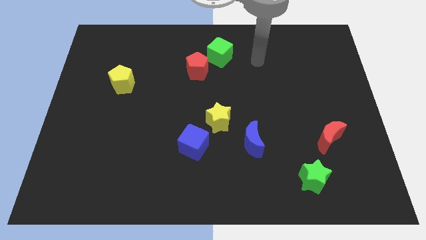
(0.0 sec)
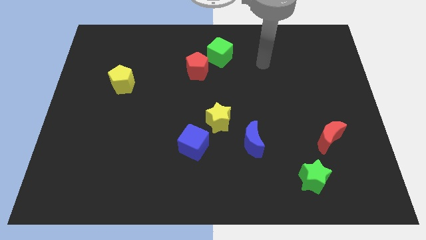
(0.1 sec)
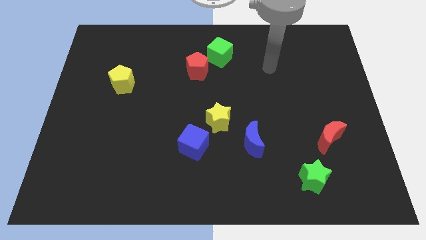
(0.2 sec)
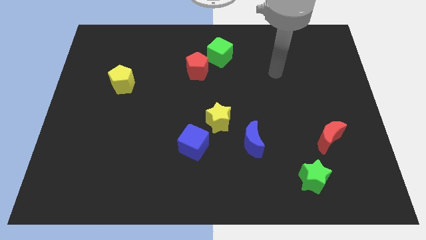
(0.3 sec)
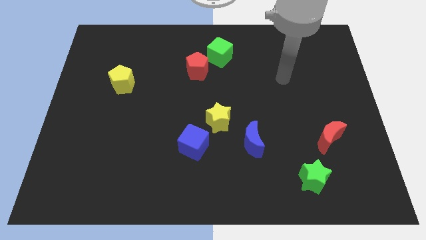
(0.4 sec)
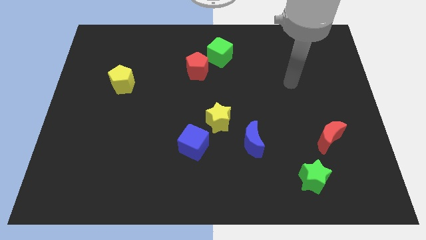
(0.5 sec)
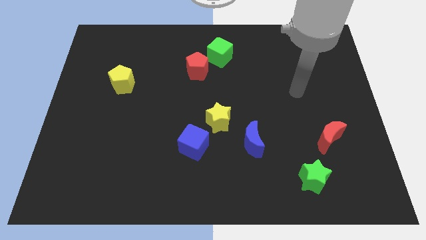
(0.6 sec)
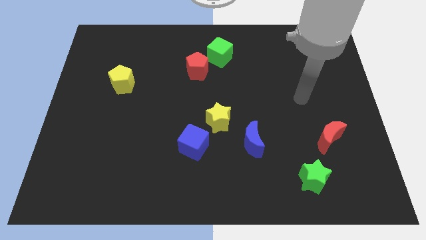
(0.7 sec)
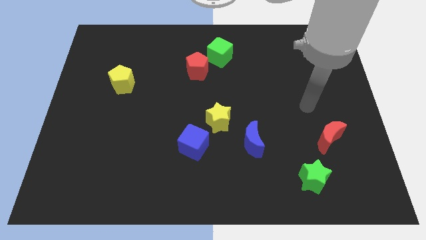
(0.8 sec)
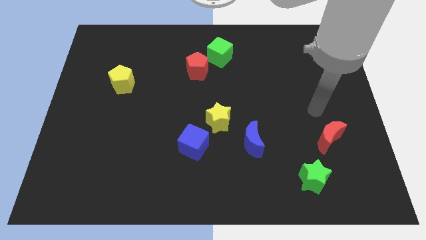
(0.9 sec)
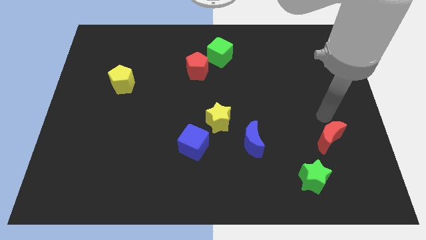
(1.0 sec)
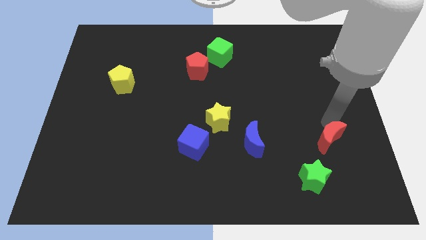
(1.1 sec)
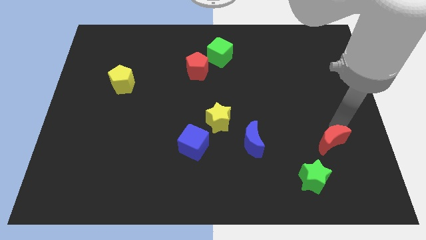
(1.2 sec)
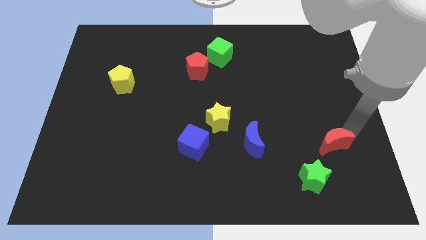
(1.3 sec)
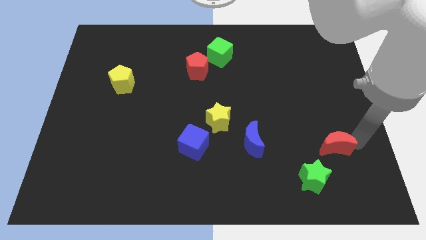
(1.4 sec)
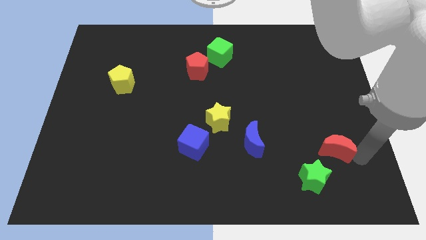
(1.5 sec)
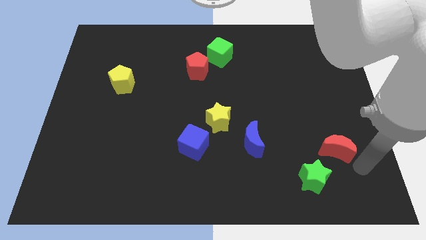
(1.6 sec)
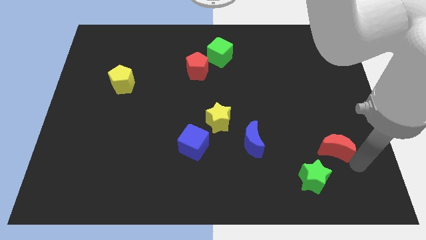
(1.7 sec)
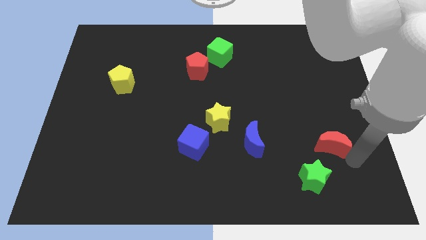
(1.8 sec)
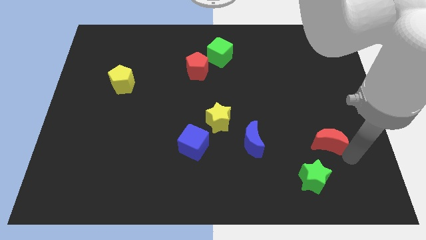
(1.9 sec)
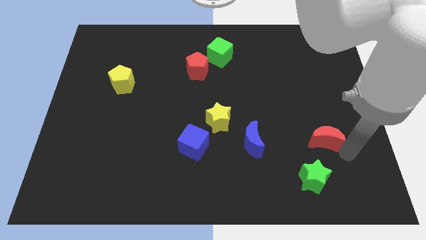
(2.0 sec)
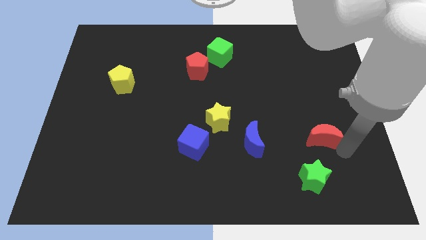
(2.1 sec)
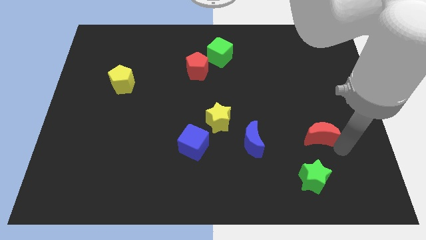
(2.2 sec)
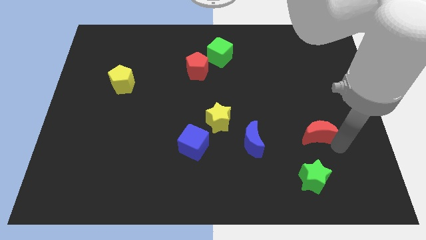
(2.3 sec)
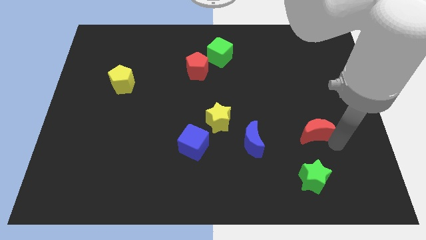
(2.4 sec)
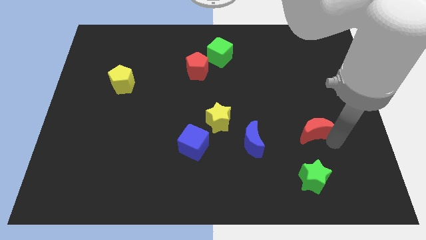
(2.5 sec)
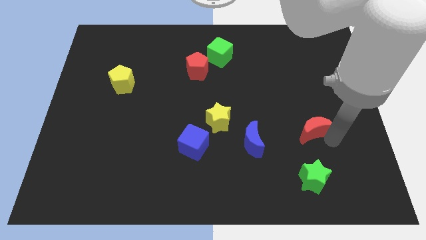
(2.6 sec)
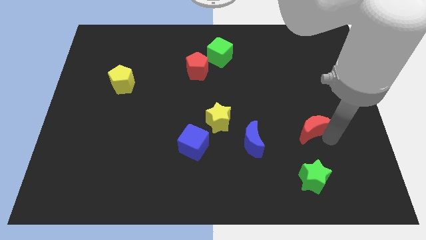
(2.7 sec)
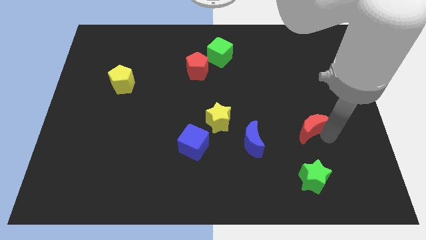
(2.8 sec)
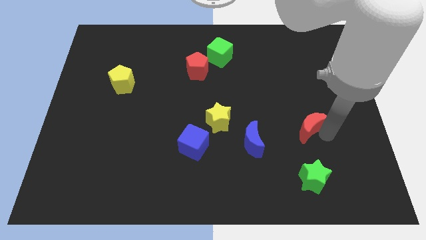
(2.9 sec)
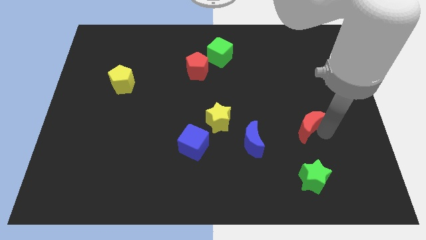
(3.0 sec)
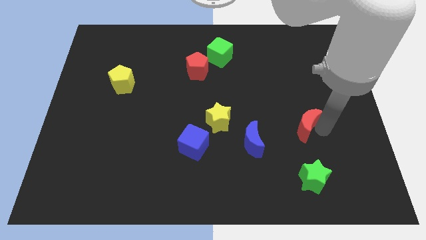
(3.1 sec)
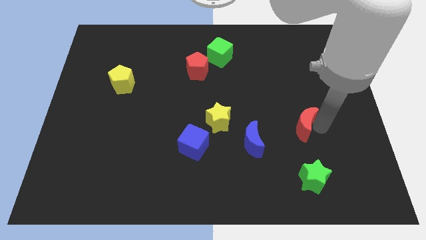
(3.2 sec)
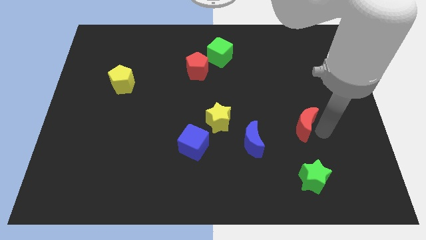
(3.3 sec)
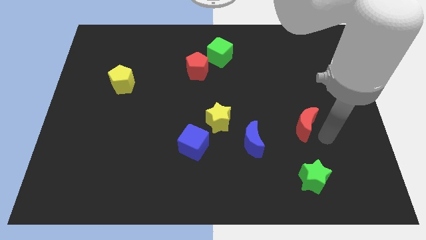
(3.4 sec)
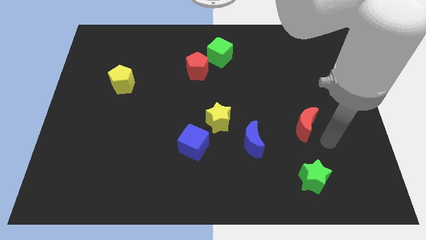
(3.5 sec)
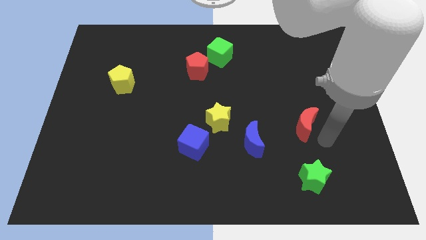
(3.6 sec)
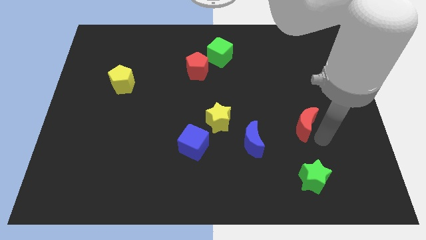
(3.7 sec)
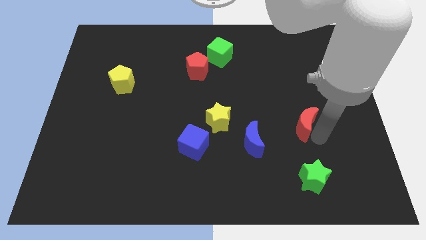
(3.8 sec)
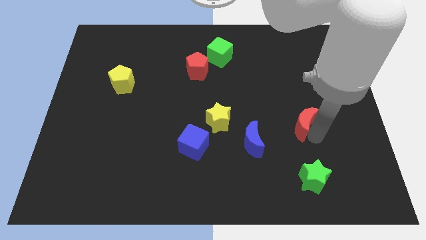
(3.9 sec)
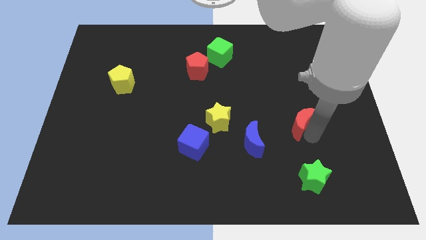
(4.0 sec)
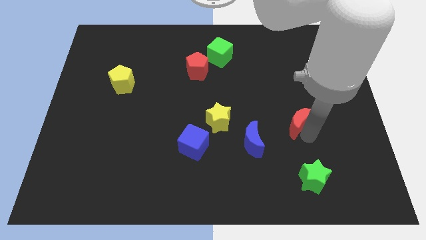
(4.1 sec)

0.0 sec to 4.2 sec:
move the red moon upwards and to the left diagonally somewhat

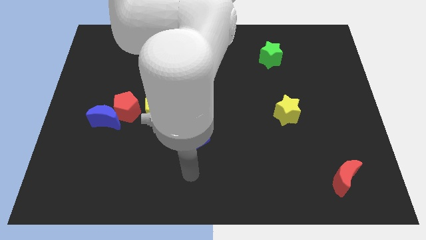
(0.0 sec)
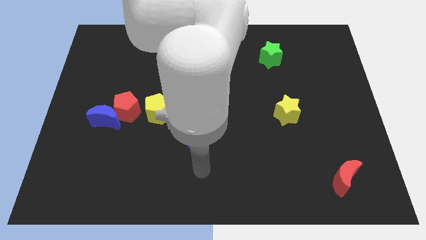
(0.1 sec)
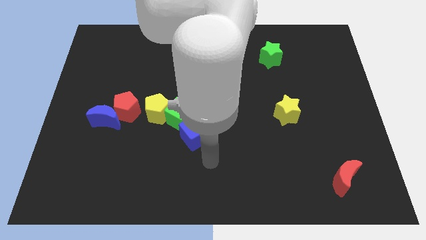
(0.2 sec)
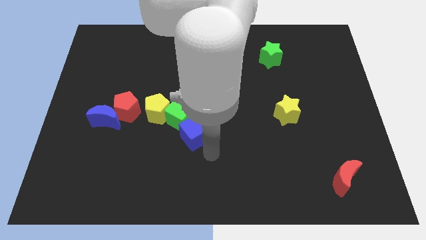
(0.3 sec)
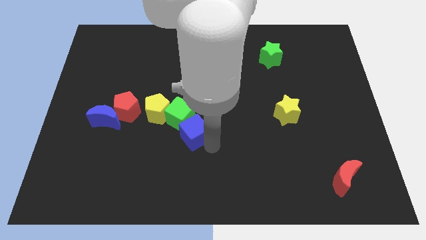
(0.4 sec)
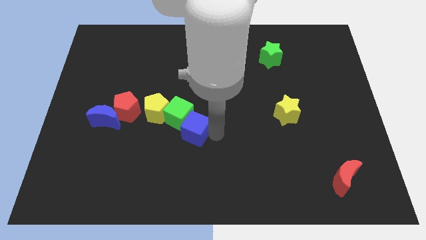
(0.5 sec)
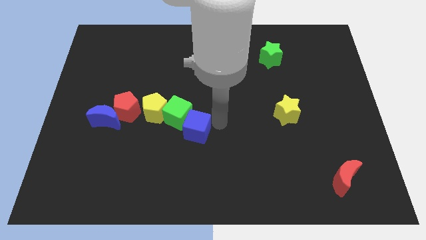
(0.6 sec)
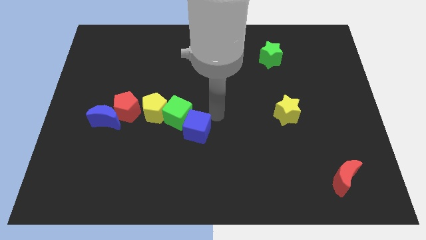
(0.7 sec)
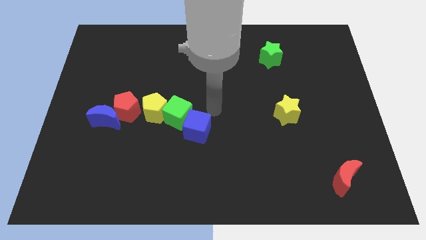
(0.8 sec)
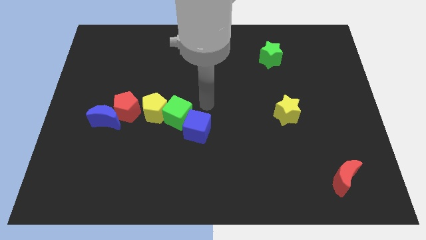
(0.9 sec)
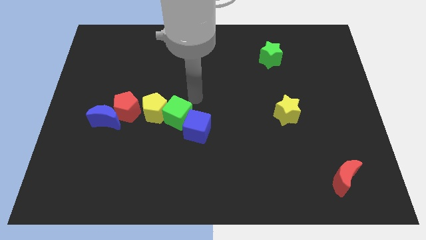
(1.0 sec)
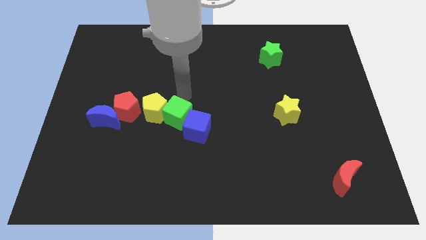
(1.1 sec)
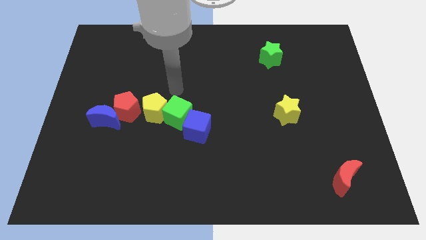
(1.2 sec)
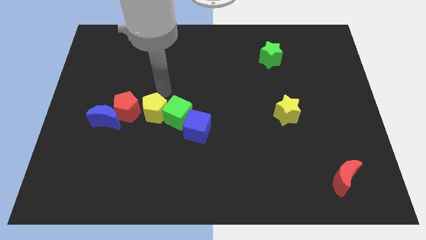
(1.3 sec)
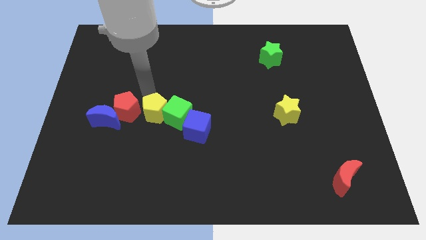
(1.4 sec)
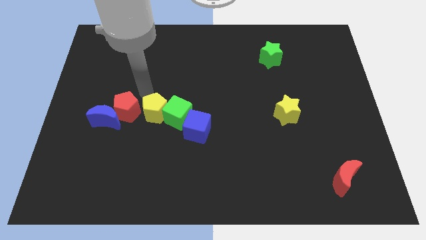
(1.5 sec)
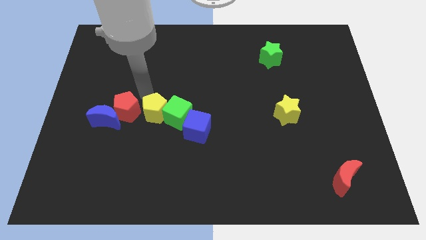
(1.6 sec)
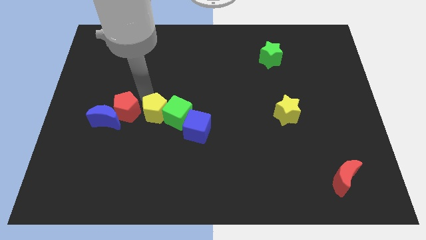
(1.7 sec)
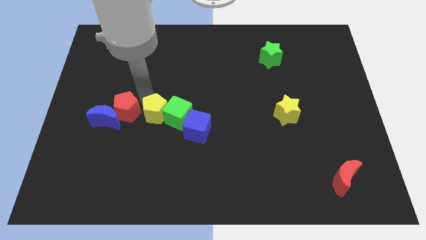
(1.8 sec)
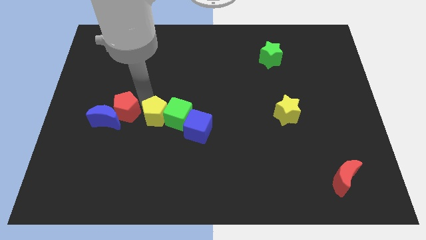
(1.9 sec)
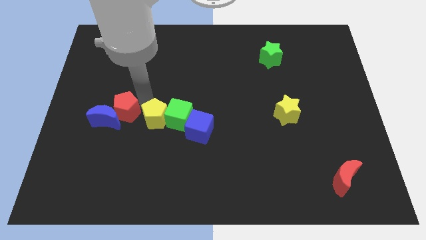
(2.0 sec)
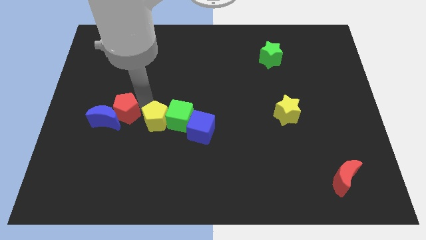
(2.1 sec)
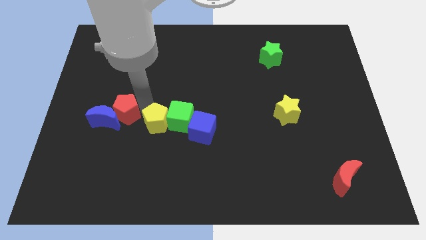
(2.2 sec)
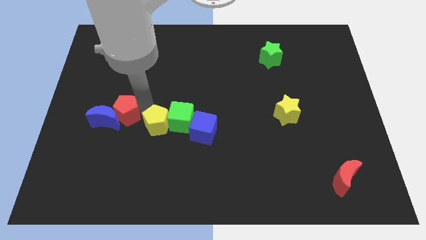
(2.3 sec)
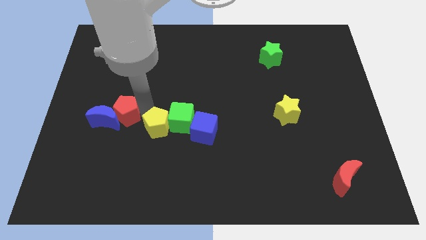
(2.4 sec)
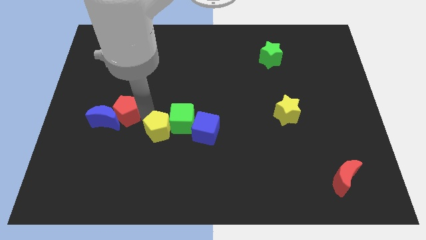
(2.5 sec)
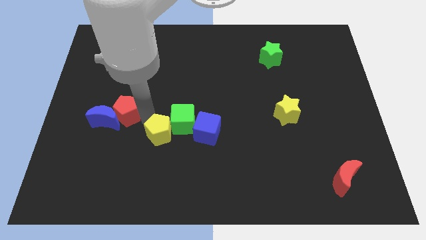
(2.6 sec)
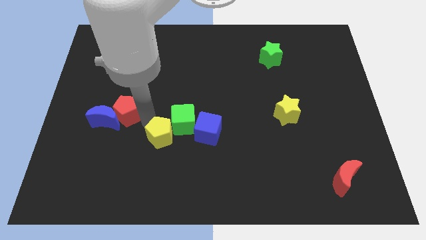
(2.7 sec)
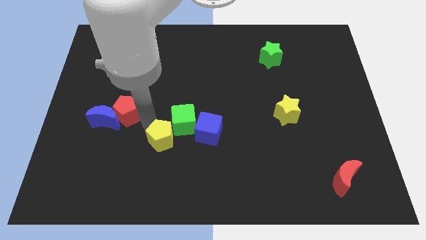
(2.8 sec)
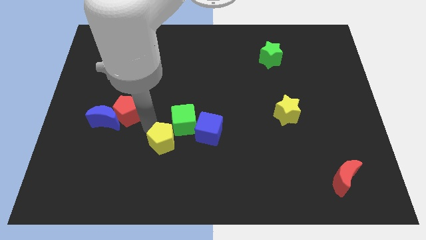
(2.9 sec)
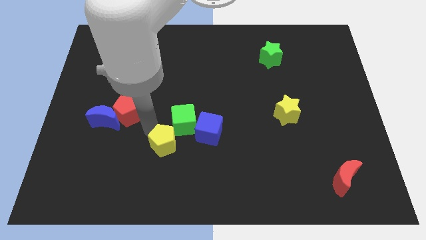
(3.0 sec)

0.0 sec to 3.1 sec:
move the yellow pentagon a bit diagonally down and to the right

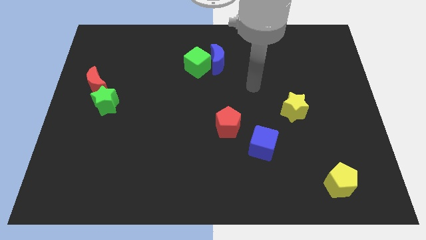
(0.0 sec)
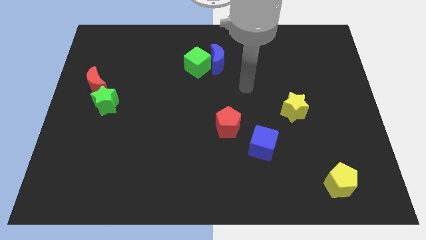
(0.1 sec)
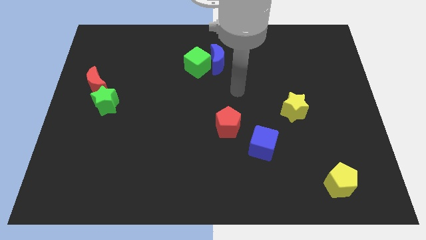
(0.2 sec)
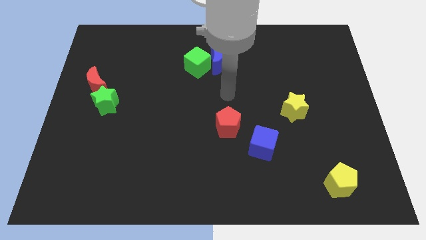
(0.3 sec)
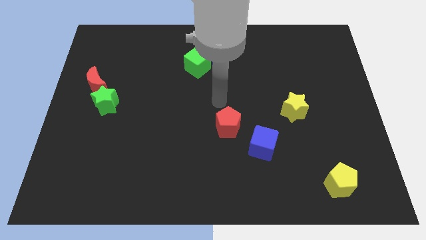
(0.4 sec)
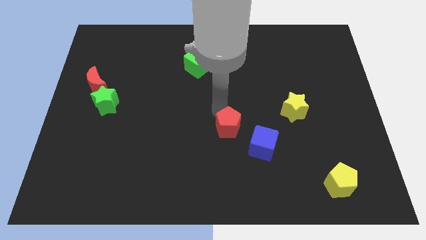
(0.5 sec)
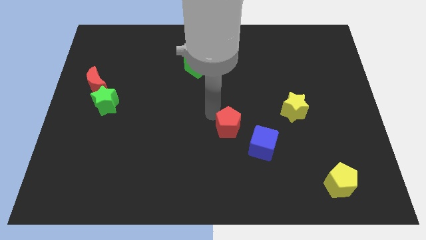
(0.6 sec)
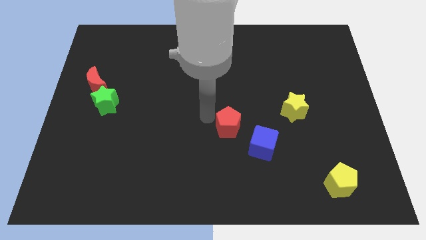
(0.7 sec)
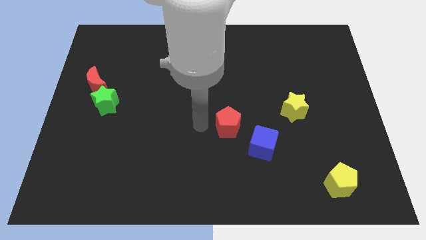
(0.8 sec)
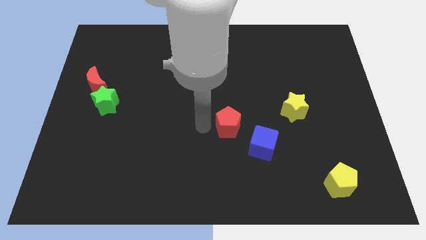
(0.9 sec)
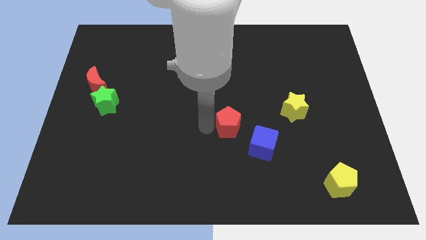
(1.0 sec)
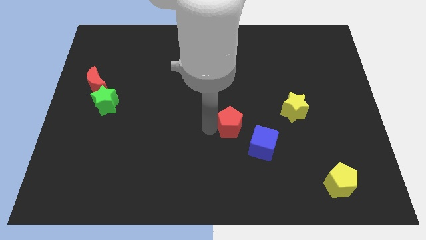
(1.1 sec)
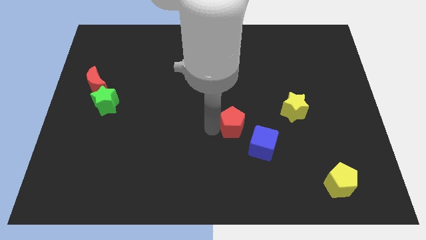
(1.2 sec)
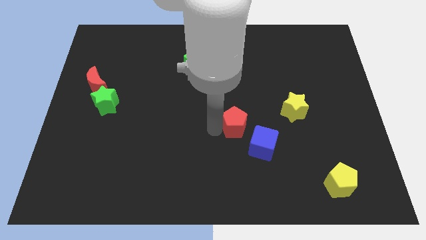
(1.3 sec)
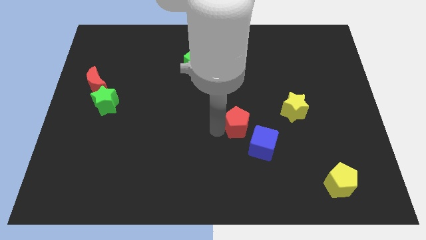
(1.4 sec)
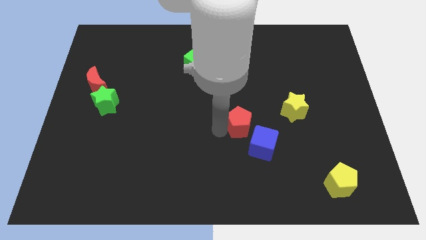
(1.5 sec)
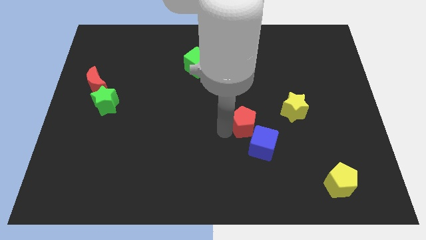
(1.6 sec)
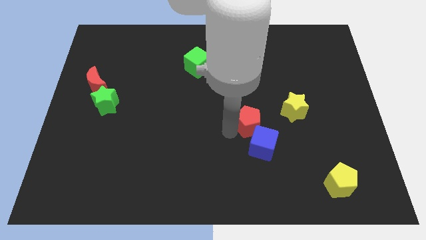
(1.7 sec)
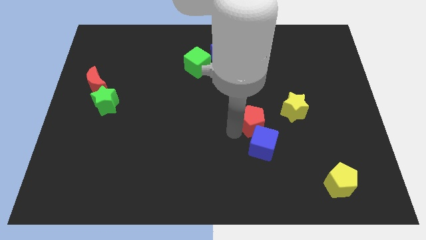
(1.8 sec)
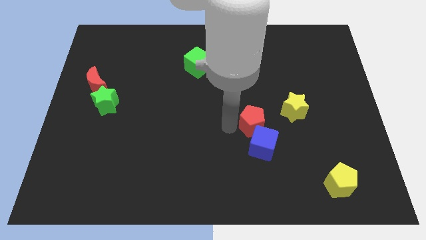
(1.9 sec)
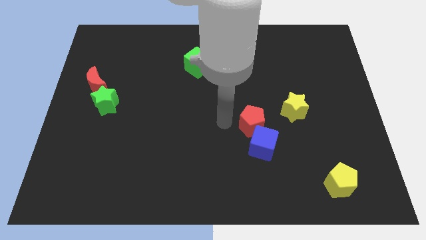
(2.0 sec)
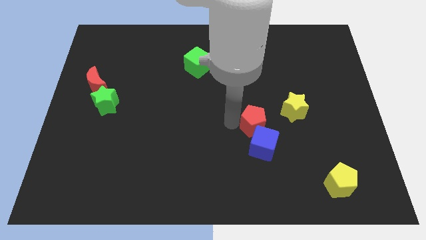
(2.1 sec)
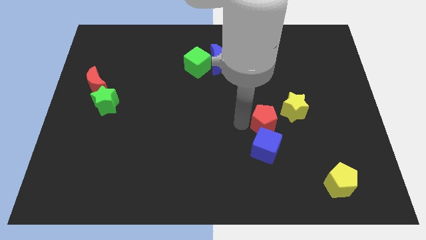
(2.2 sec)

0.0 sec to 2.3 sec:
slide the red pentagon a little bit right
